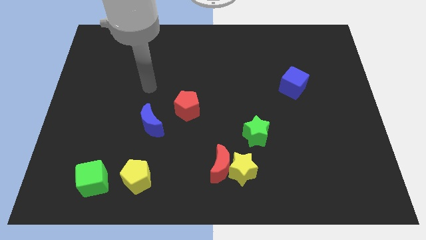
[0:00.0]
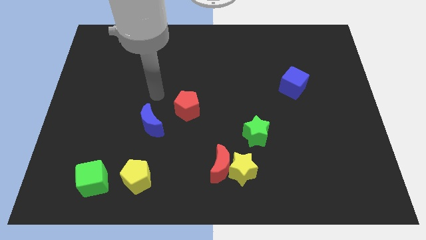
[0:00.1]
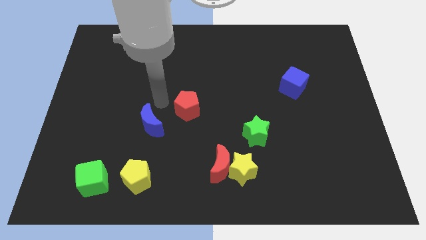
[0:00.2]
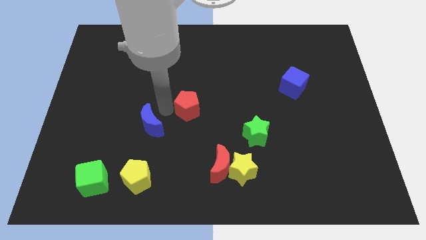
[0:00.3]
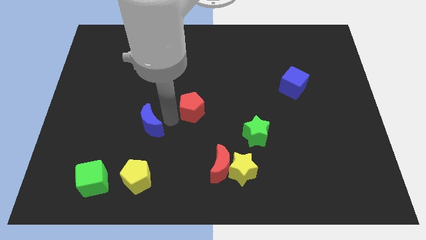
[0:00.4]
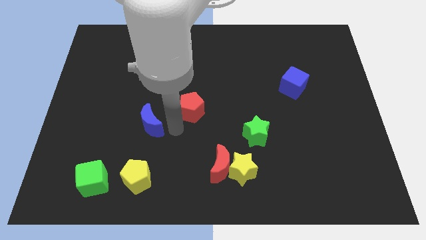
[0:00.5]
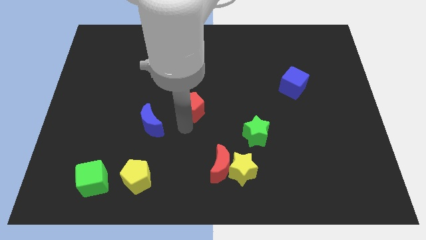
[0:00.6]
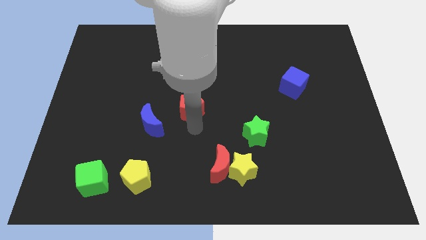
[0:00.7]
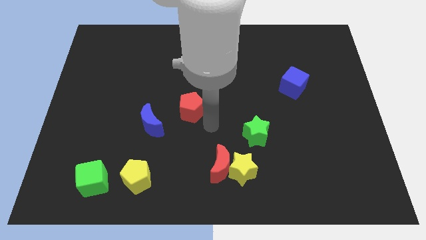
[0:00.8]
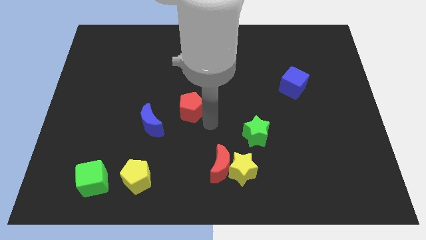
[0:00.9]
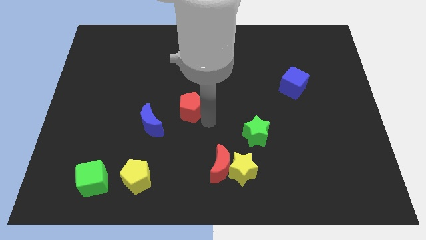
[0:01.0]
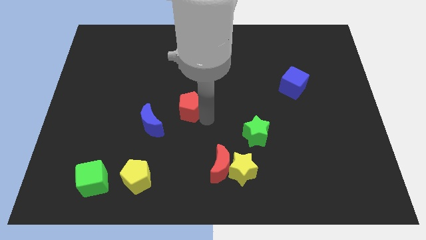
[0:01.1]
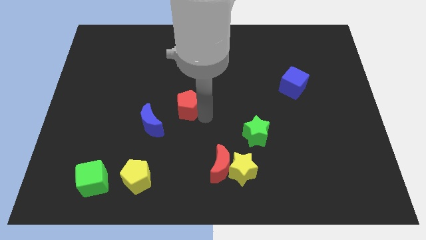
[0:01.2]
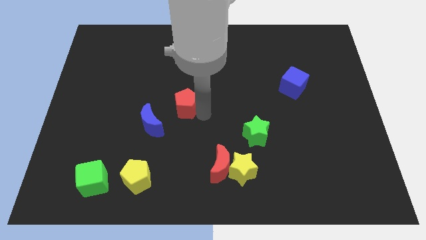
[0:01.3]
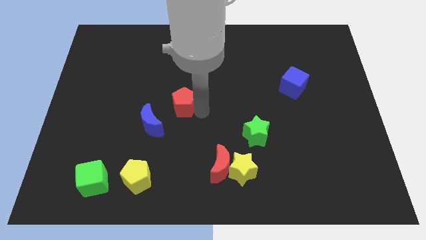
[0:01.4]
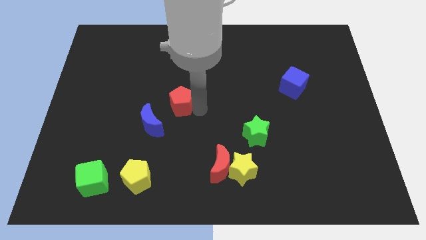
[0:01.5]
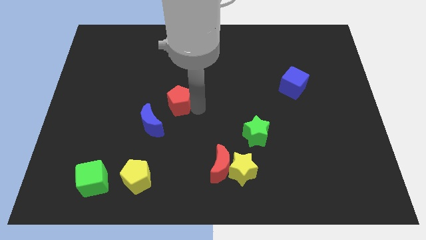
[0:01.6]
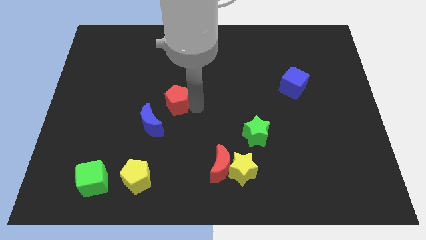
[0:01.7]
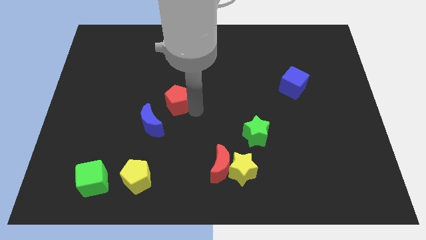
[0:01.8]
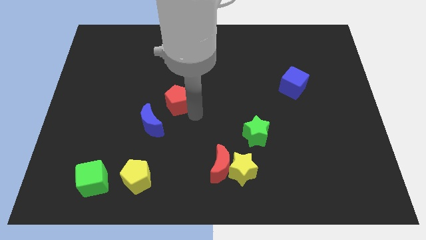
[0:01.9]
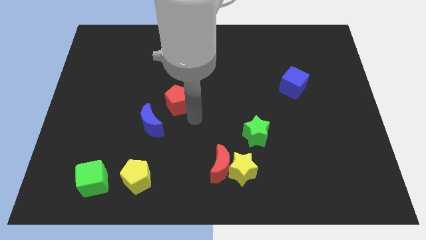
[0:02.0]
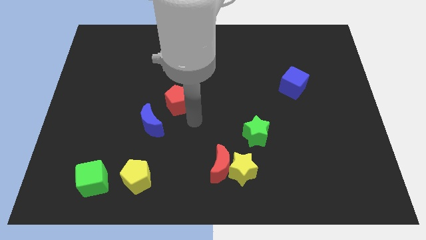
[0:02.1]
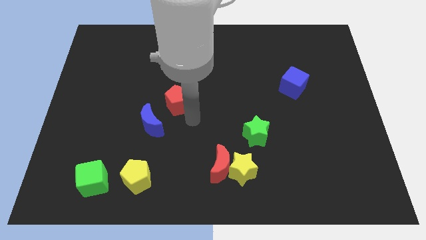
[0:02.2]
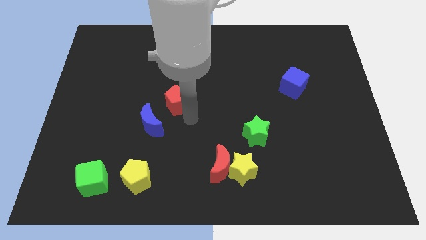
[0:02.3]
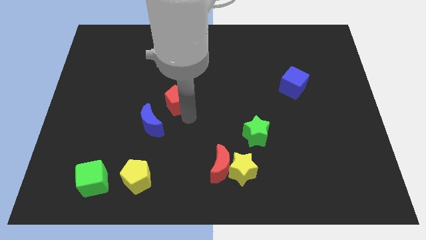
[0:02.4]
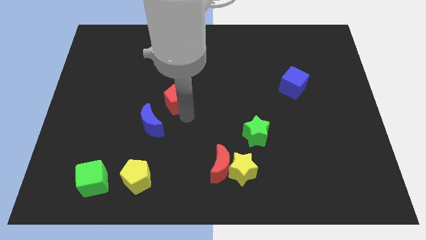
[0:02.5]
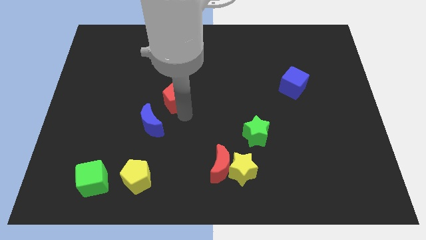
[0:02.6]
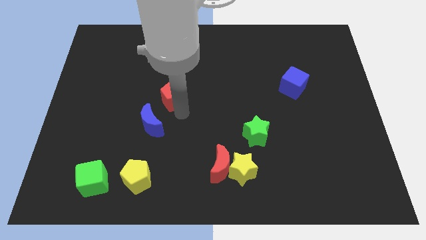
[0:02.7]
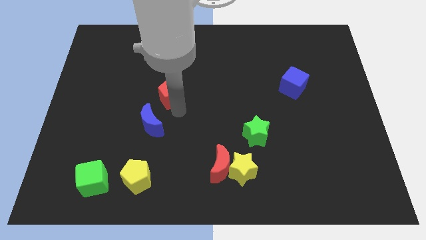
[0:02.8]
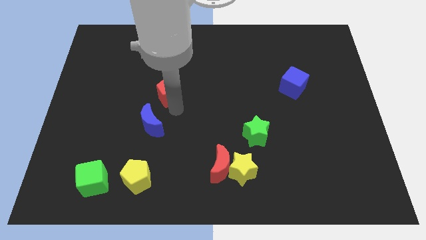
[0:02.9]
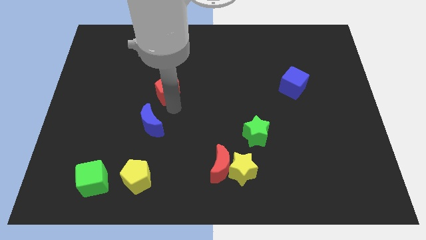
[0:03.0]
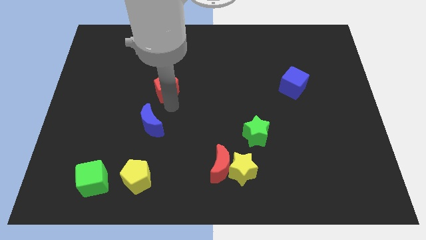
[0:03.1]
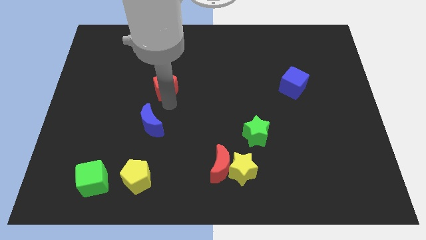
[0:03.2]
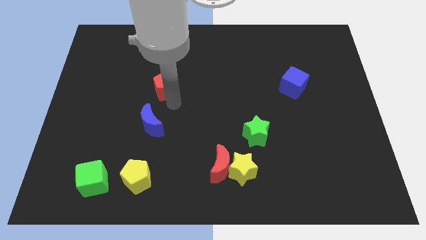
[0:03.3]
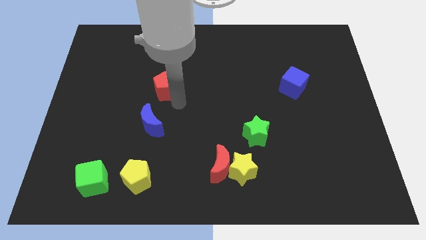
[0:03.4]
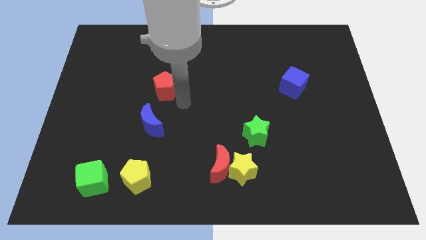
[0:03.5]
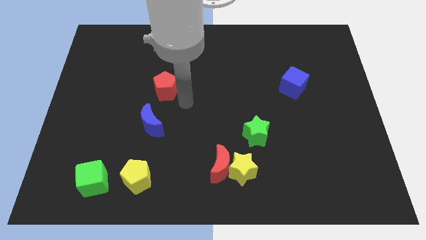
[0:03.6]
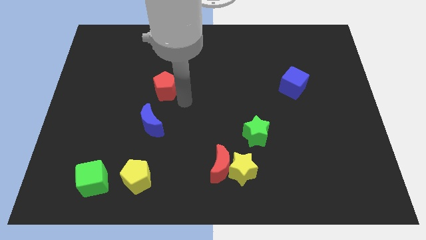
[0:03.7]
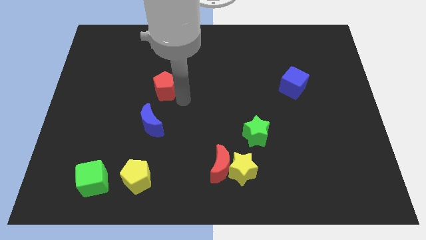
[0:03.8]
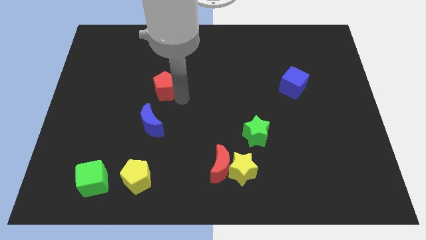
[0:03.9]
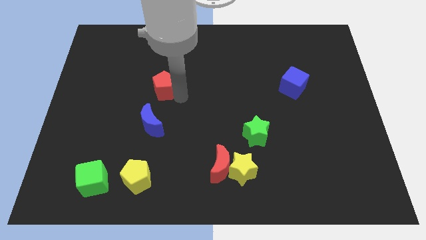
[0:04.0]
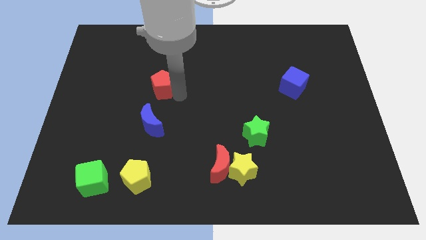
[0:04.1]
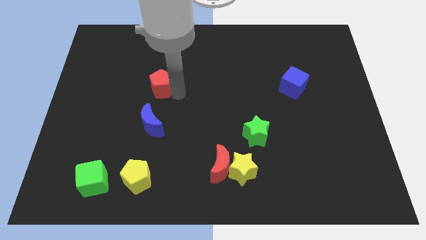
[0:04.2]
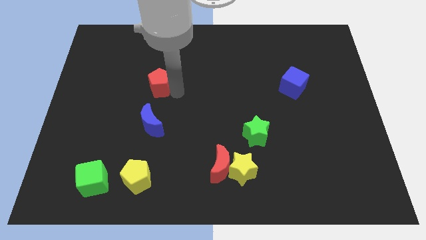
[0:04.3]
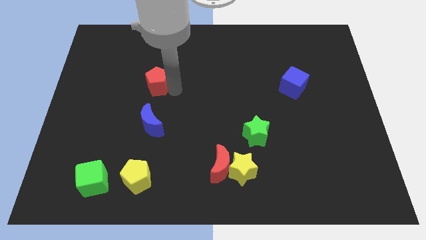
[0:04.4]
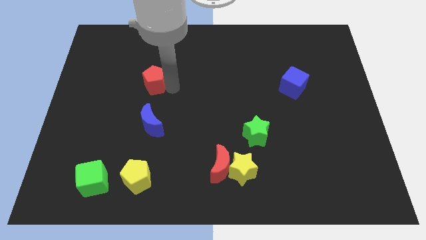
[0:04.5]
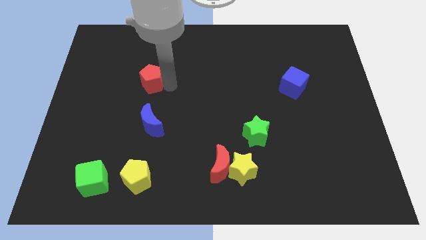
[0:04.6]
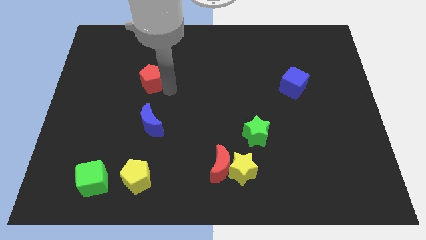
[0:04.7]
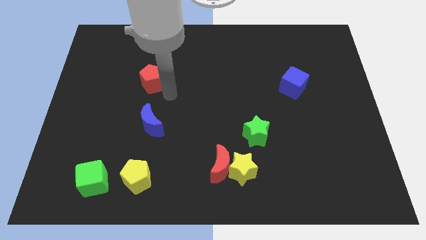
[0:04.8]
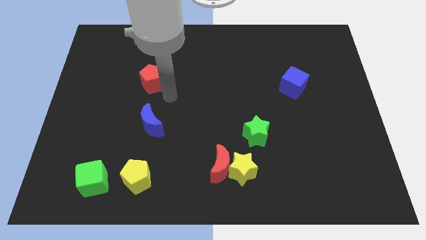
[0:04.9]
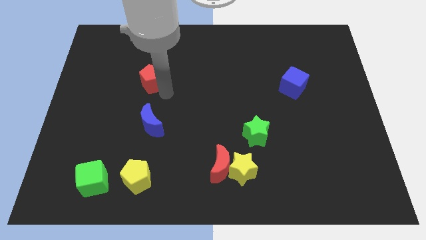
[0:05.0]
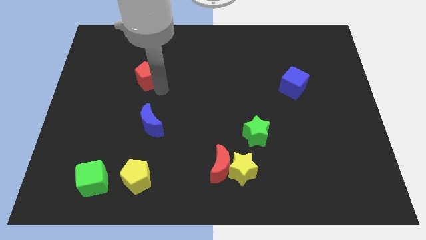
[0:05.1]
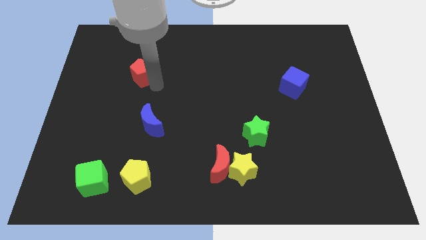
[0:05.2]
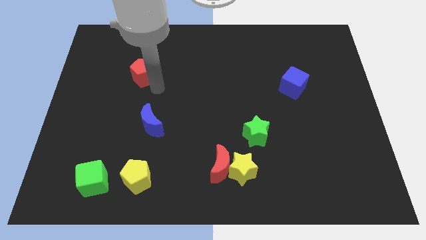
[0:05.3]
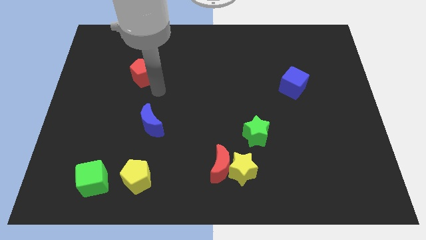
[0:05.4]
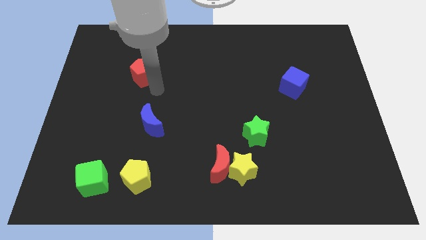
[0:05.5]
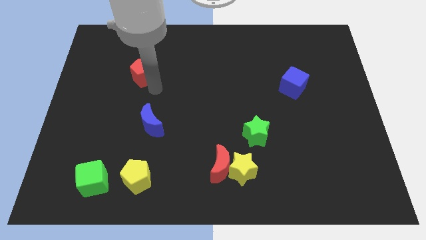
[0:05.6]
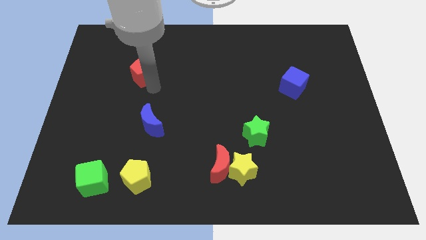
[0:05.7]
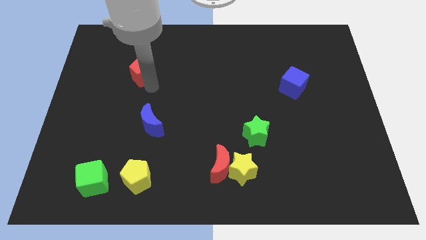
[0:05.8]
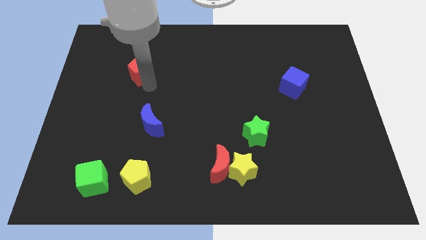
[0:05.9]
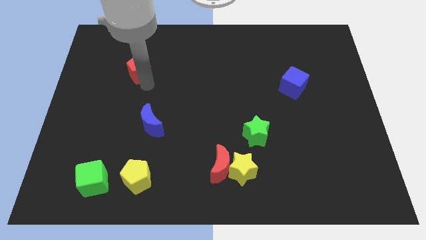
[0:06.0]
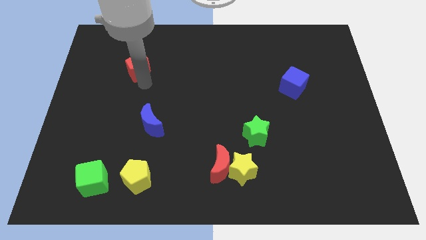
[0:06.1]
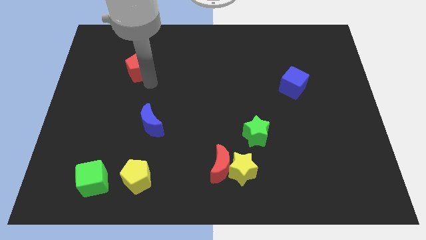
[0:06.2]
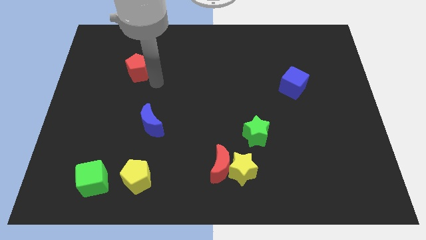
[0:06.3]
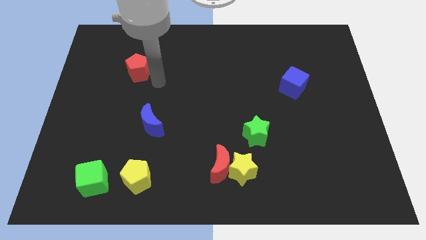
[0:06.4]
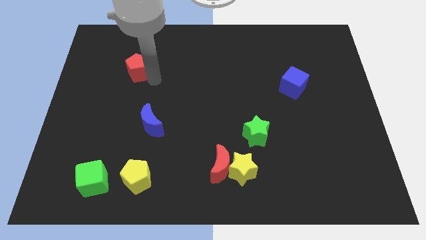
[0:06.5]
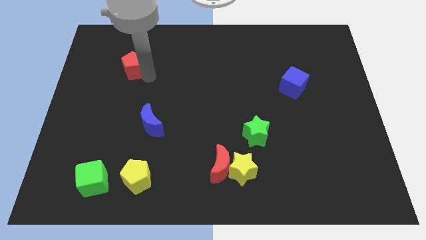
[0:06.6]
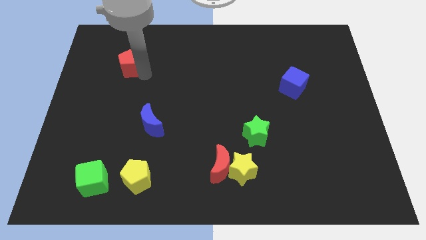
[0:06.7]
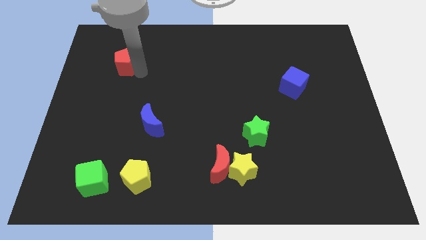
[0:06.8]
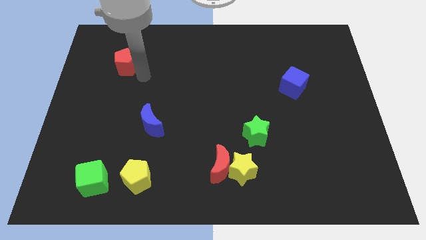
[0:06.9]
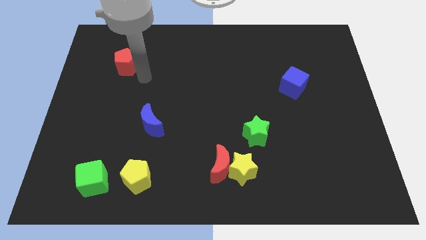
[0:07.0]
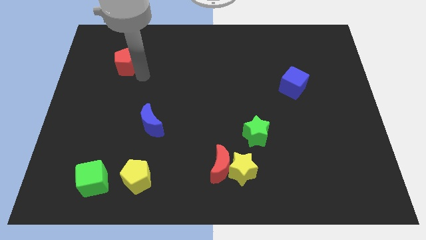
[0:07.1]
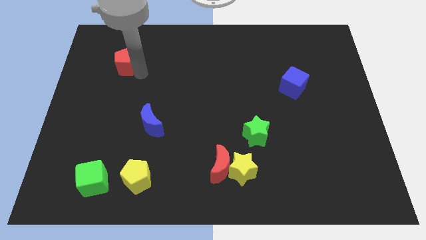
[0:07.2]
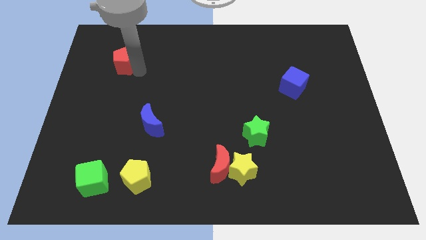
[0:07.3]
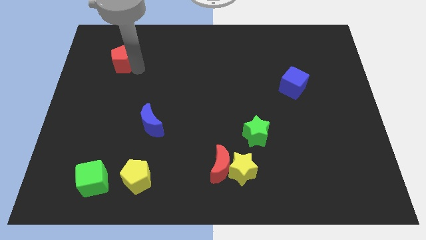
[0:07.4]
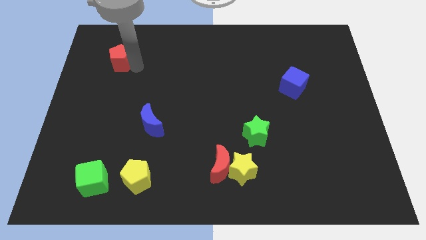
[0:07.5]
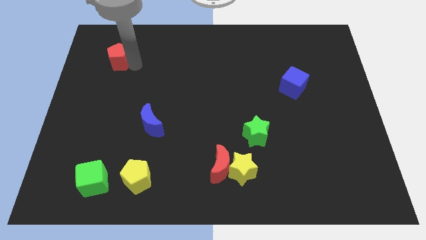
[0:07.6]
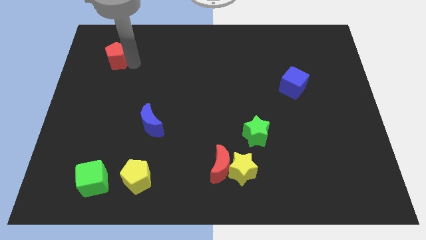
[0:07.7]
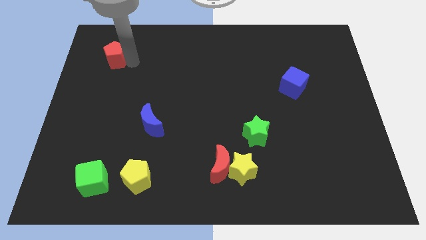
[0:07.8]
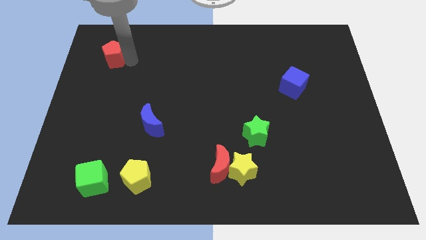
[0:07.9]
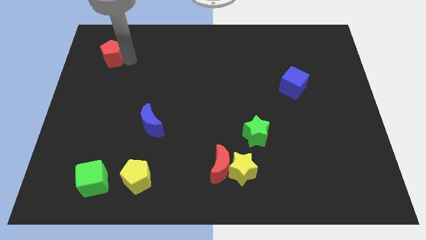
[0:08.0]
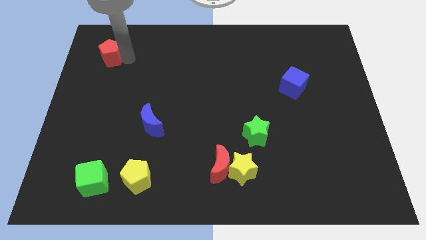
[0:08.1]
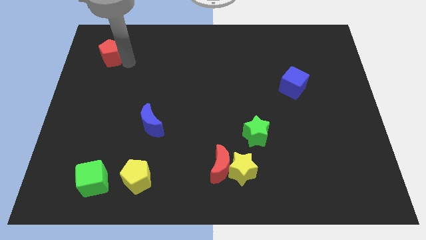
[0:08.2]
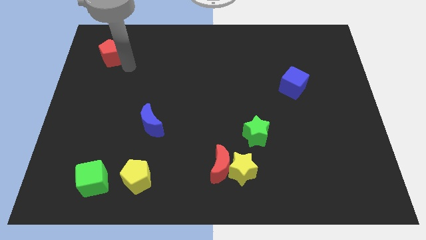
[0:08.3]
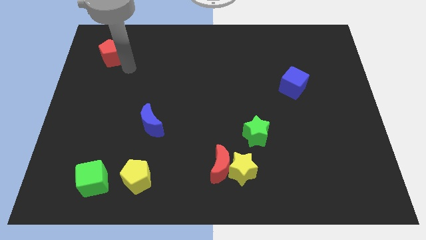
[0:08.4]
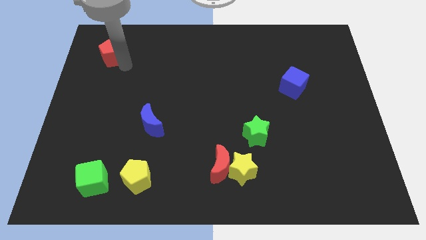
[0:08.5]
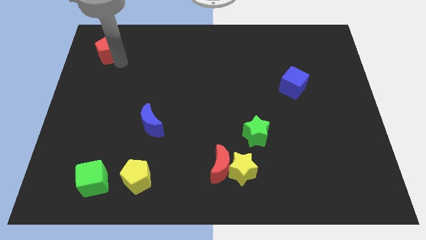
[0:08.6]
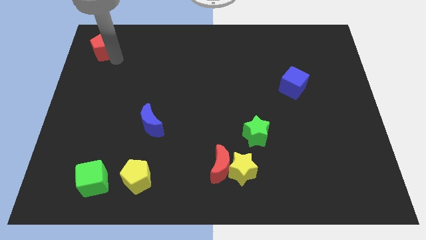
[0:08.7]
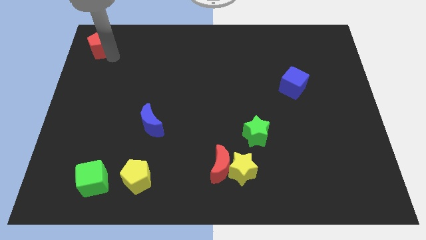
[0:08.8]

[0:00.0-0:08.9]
move the red pentagon to the top left
